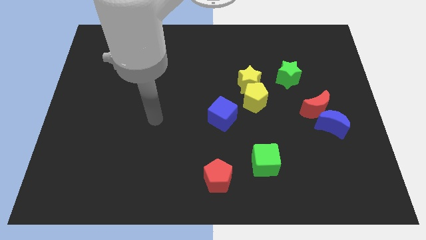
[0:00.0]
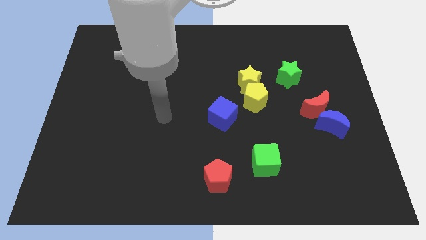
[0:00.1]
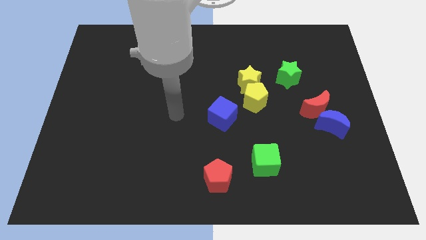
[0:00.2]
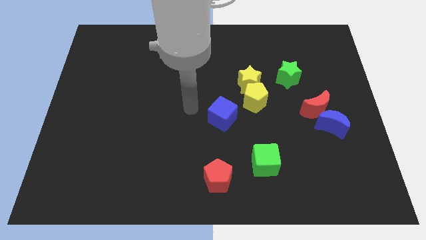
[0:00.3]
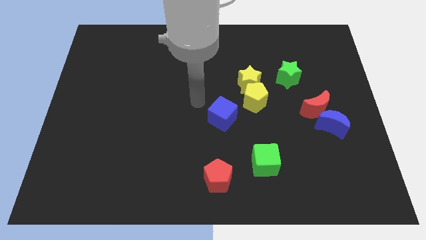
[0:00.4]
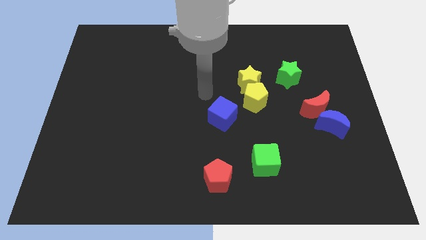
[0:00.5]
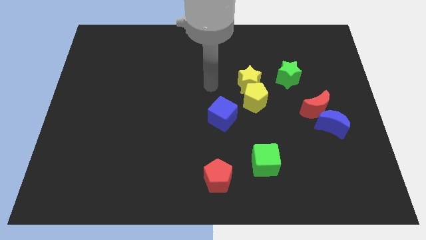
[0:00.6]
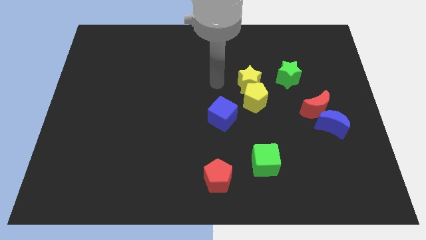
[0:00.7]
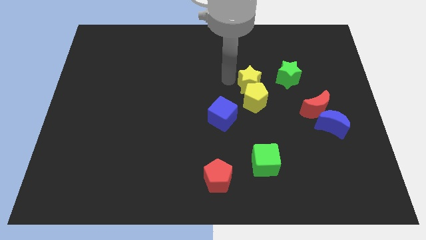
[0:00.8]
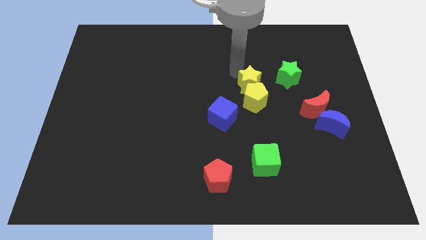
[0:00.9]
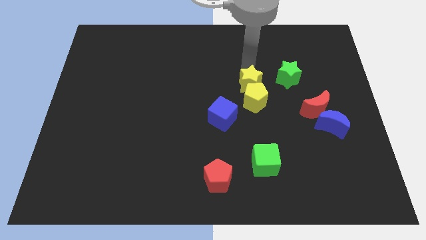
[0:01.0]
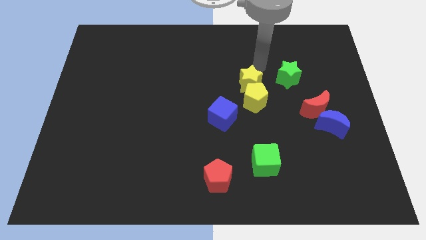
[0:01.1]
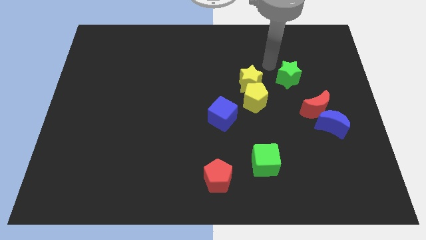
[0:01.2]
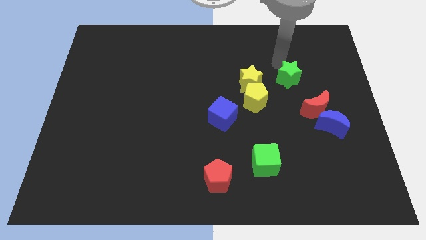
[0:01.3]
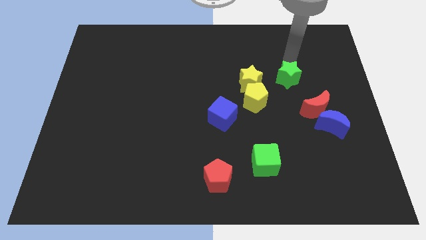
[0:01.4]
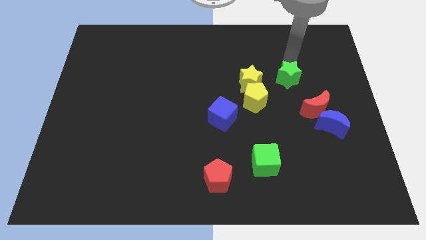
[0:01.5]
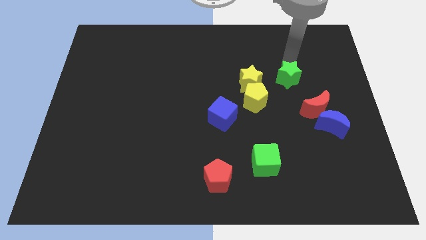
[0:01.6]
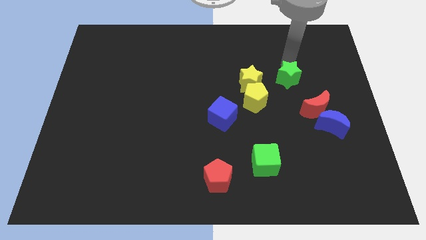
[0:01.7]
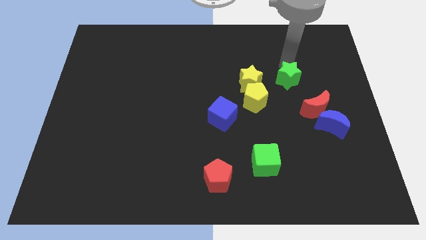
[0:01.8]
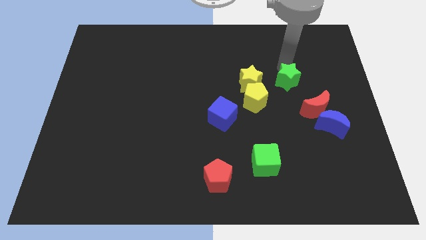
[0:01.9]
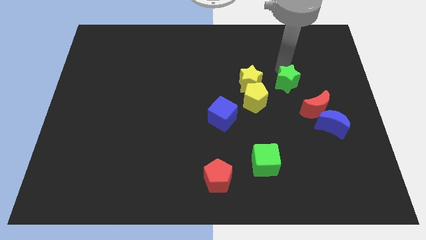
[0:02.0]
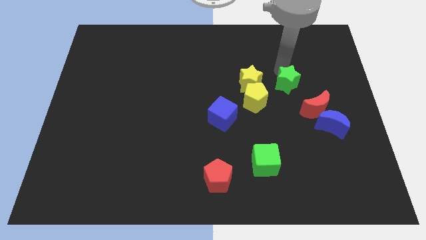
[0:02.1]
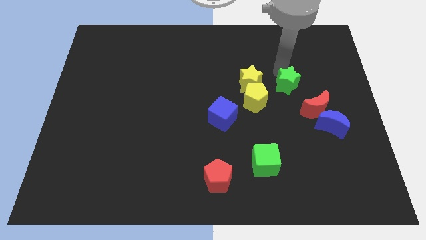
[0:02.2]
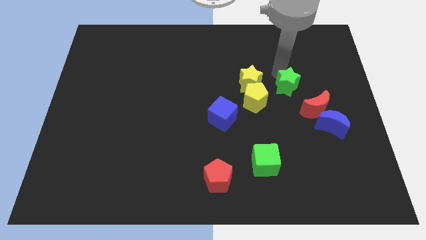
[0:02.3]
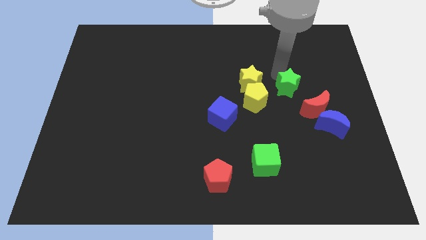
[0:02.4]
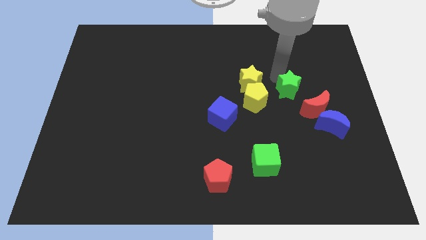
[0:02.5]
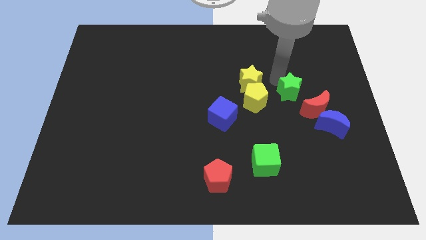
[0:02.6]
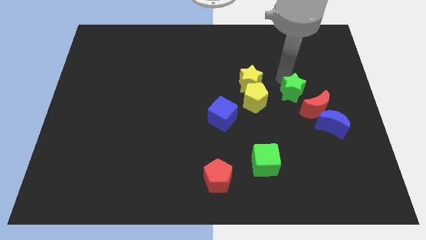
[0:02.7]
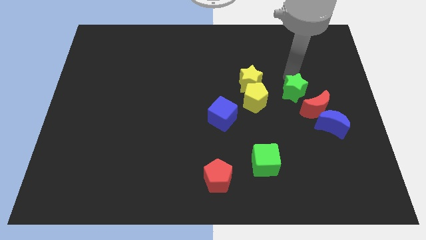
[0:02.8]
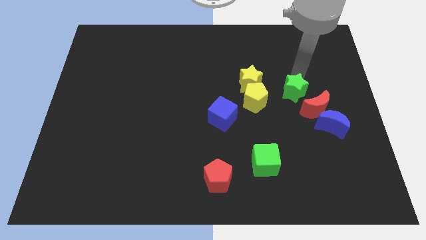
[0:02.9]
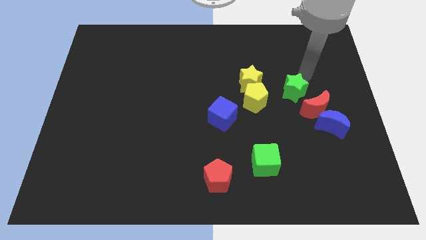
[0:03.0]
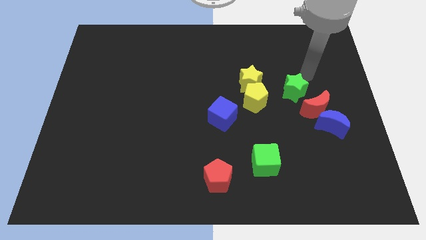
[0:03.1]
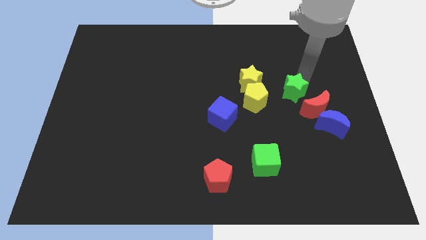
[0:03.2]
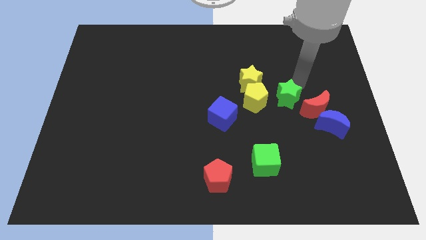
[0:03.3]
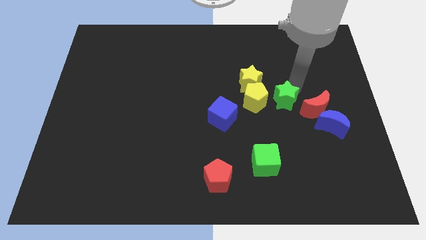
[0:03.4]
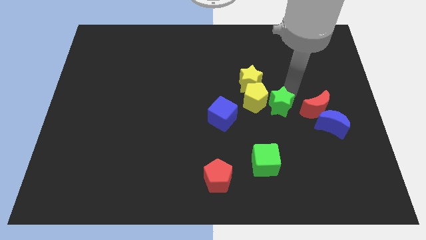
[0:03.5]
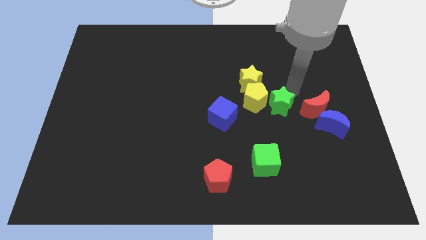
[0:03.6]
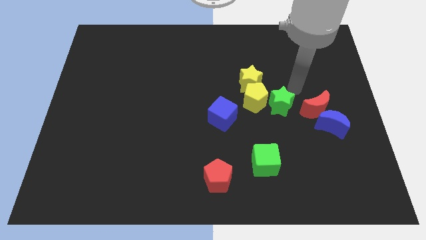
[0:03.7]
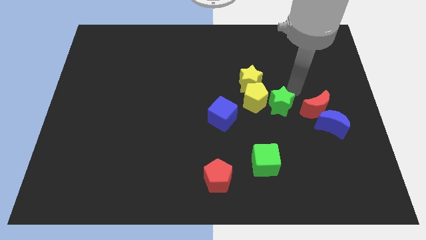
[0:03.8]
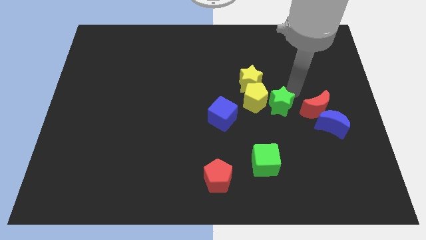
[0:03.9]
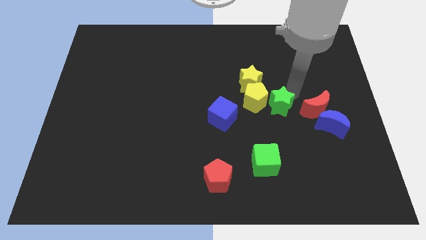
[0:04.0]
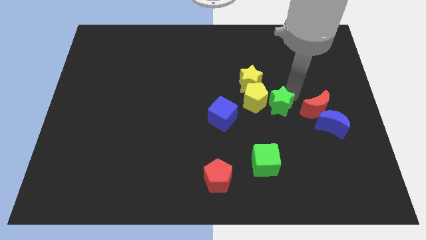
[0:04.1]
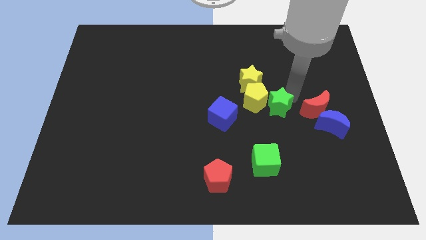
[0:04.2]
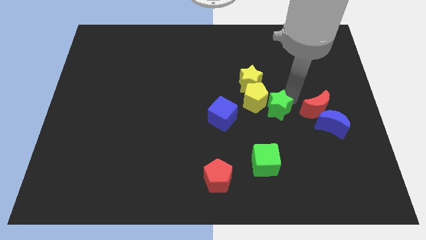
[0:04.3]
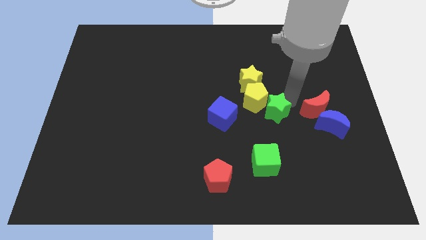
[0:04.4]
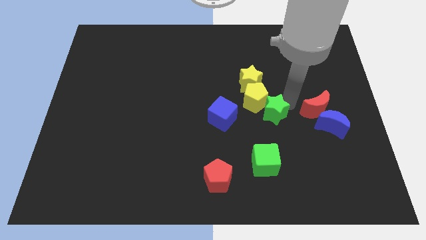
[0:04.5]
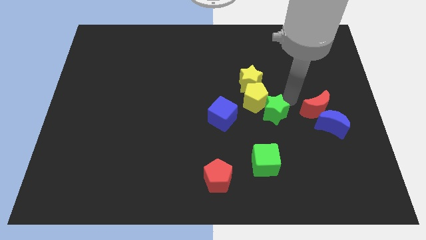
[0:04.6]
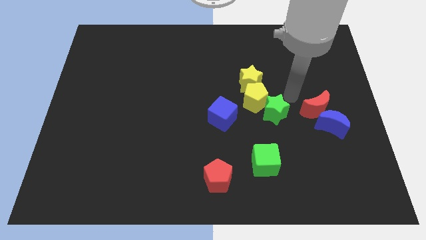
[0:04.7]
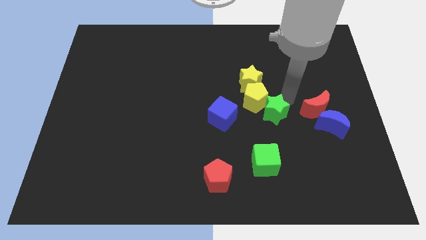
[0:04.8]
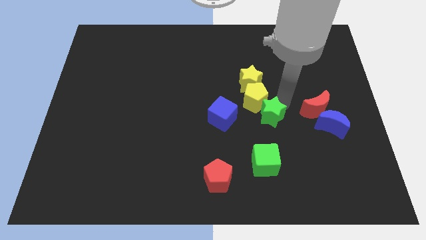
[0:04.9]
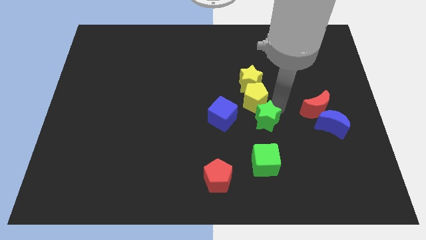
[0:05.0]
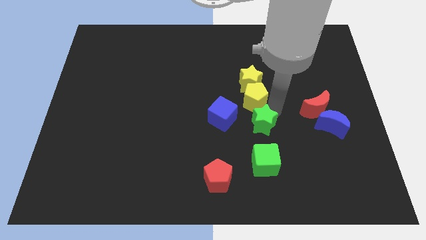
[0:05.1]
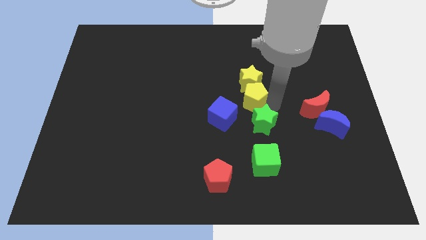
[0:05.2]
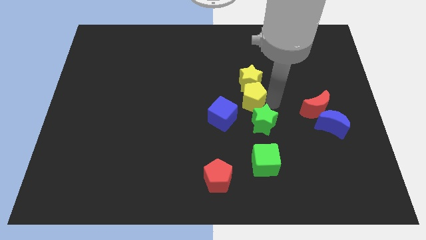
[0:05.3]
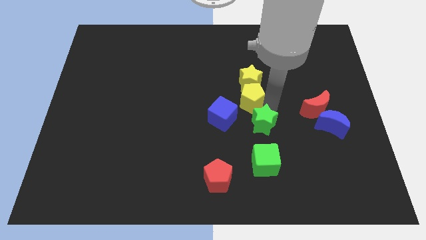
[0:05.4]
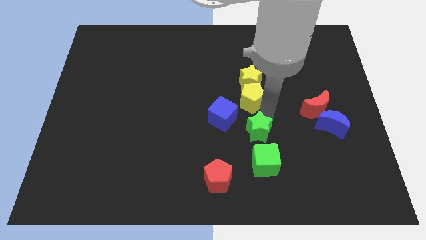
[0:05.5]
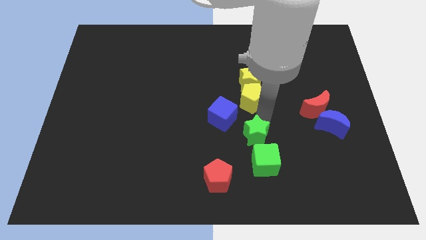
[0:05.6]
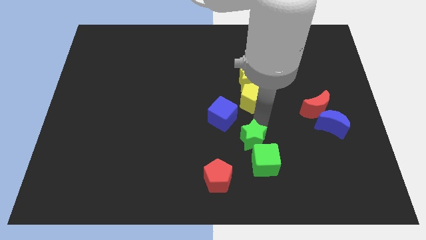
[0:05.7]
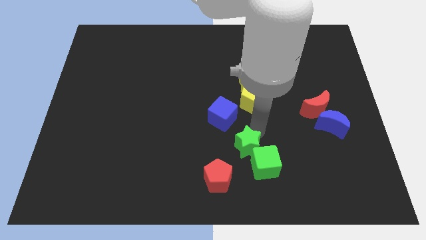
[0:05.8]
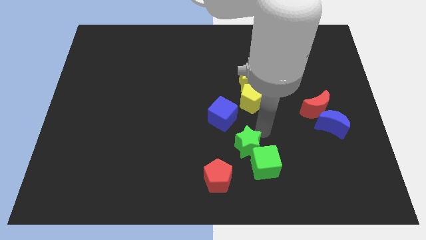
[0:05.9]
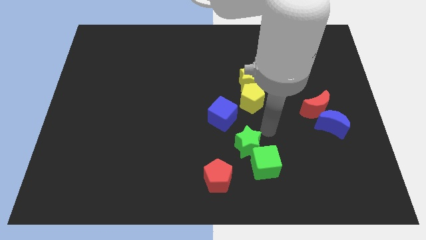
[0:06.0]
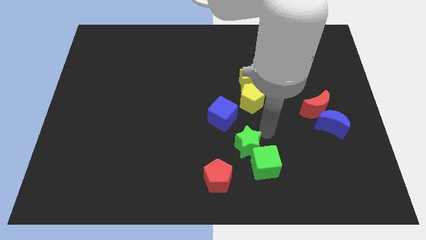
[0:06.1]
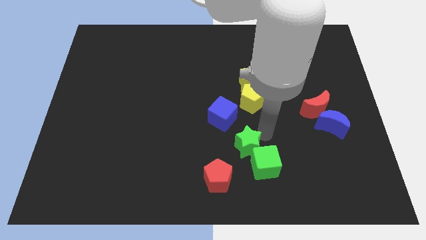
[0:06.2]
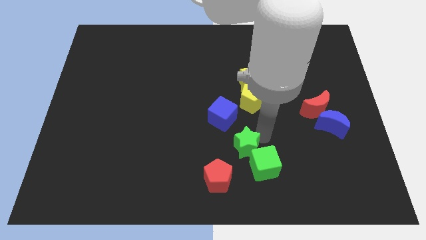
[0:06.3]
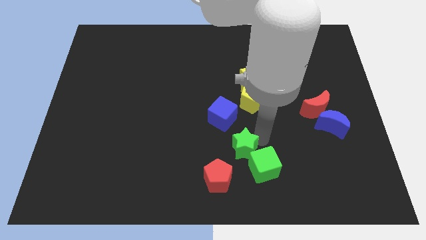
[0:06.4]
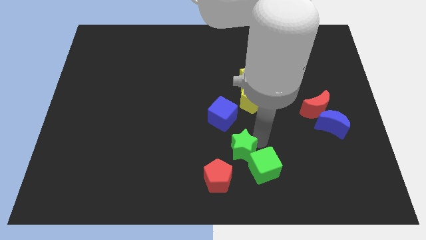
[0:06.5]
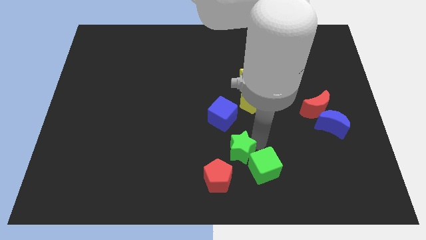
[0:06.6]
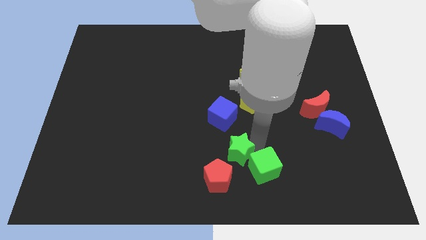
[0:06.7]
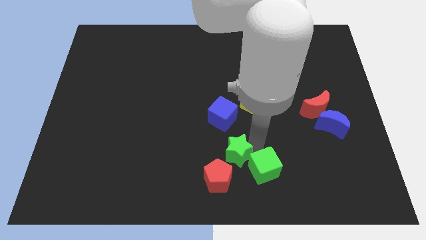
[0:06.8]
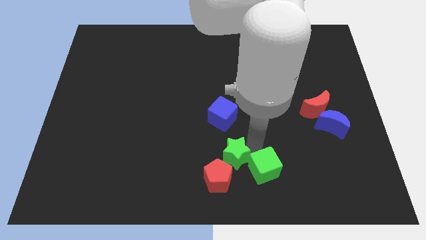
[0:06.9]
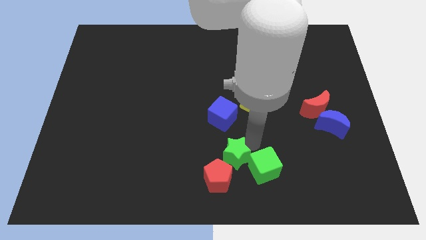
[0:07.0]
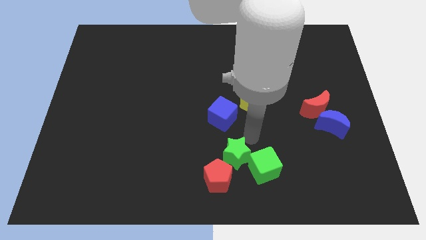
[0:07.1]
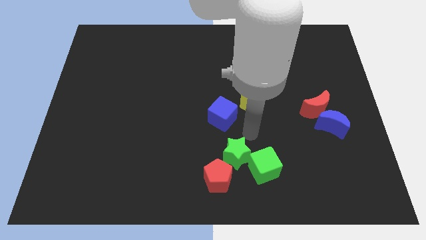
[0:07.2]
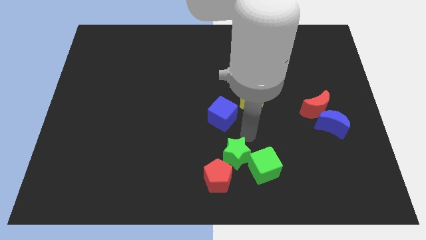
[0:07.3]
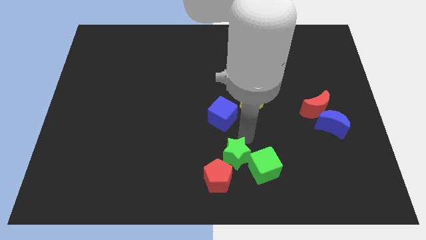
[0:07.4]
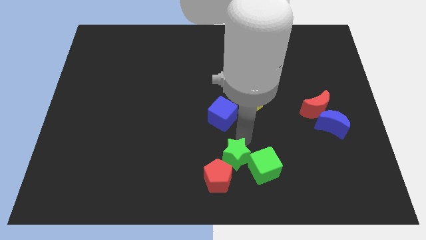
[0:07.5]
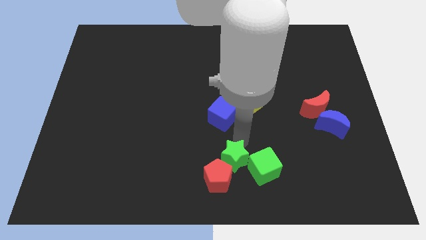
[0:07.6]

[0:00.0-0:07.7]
slide the green star close to the red pentagon

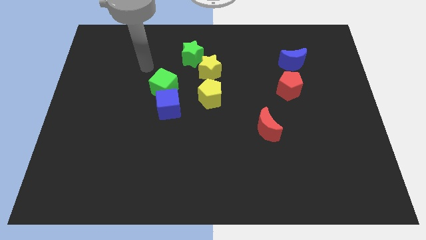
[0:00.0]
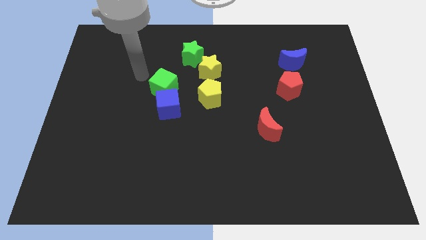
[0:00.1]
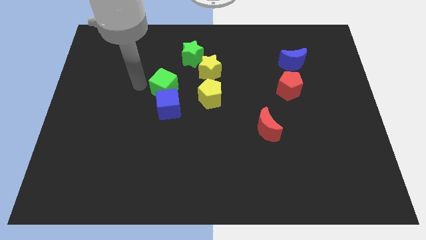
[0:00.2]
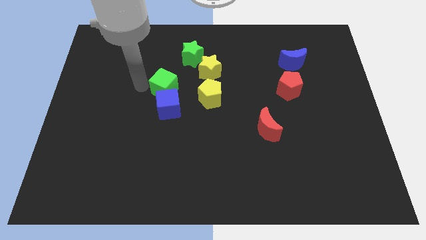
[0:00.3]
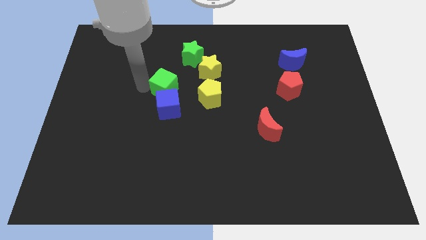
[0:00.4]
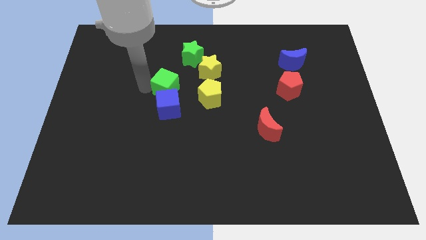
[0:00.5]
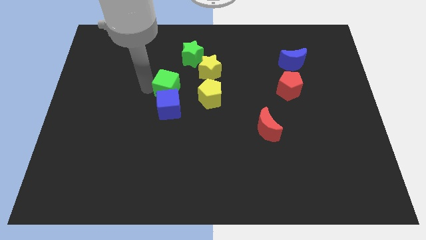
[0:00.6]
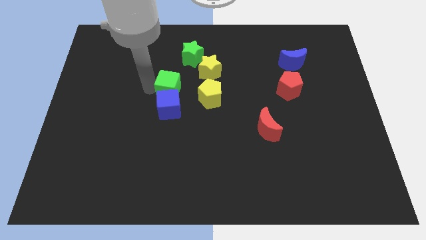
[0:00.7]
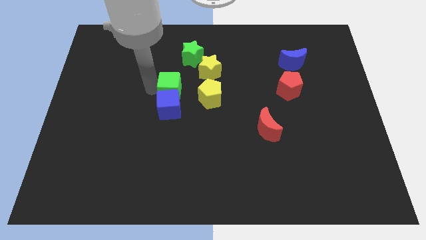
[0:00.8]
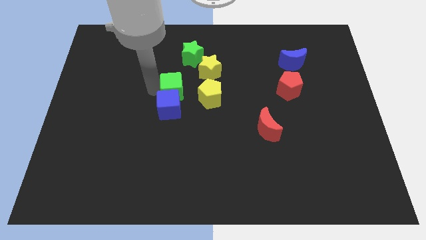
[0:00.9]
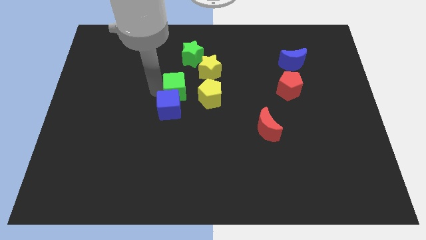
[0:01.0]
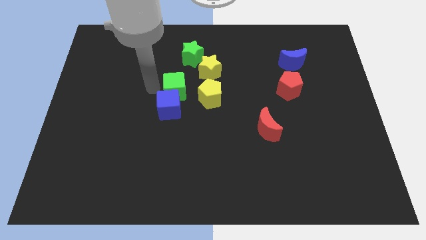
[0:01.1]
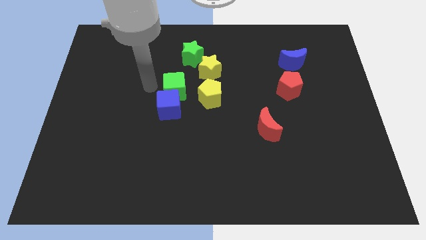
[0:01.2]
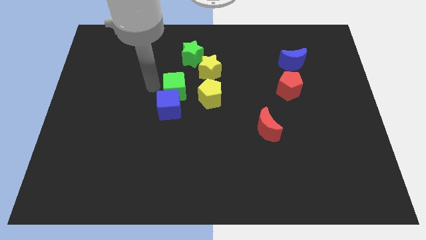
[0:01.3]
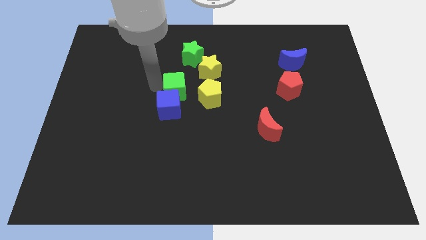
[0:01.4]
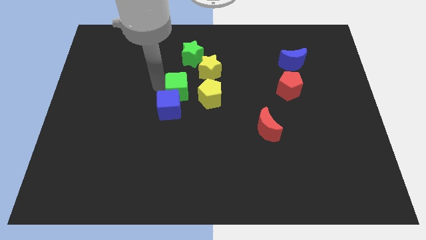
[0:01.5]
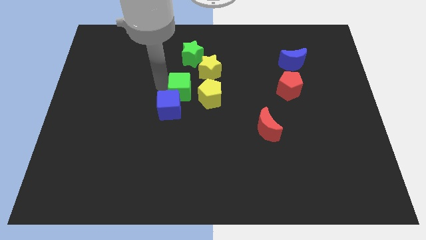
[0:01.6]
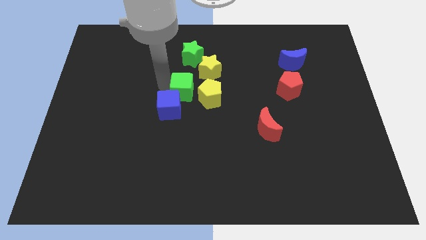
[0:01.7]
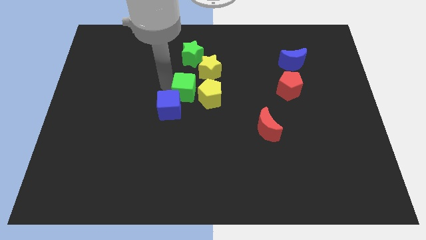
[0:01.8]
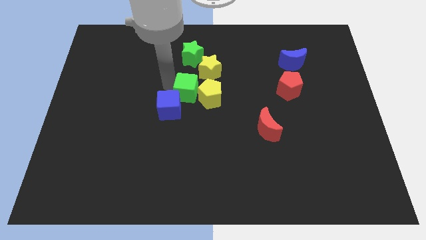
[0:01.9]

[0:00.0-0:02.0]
push the green cube close to the yellow pentagon
